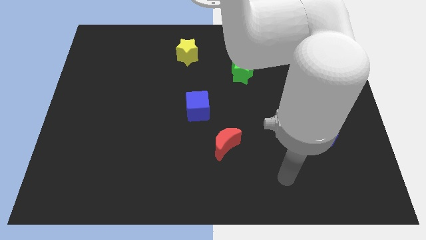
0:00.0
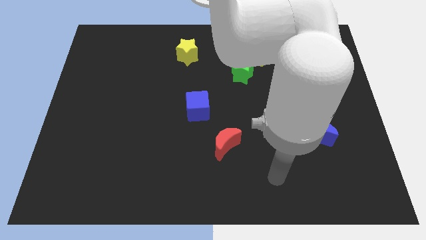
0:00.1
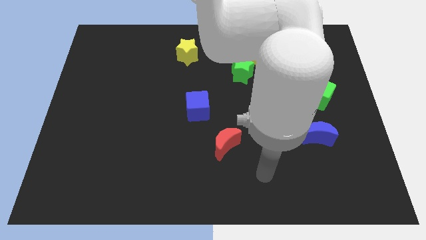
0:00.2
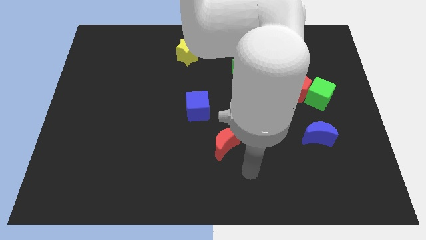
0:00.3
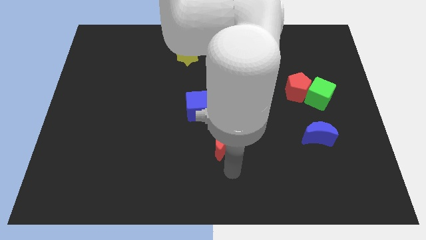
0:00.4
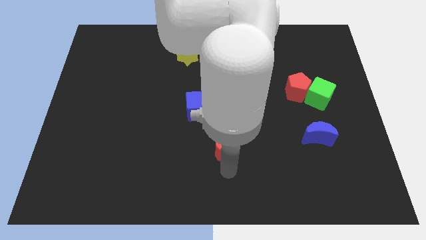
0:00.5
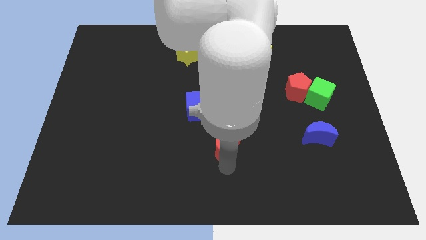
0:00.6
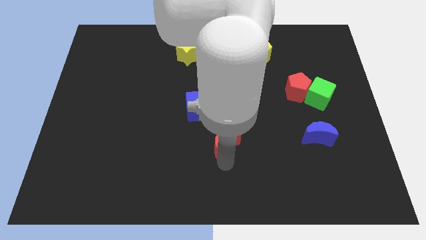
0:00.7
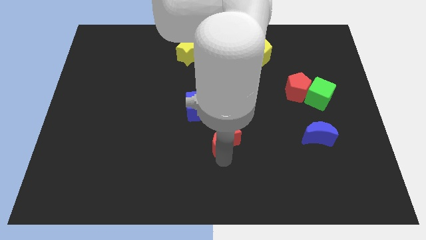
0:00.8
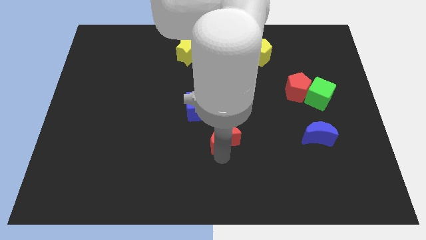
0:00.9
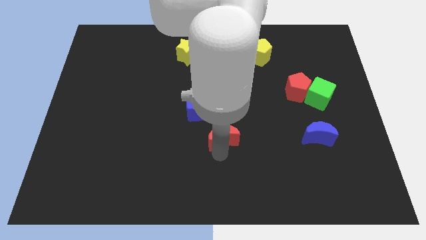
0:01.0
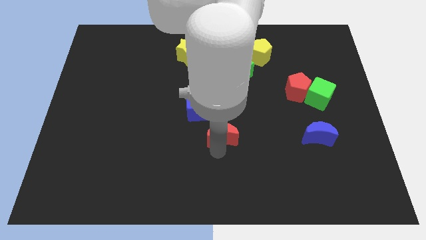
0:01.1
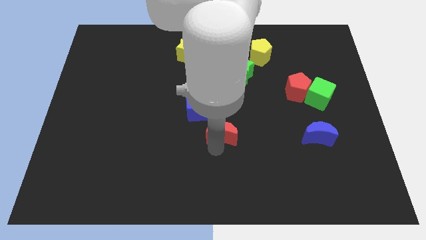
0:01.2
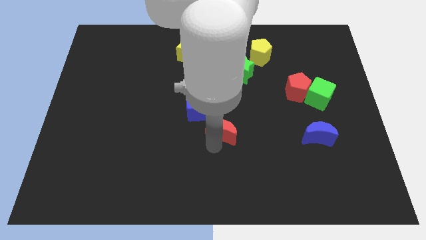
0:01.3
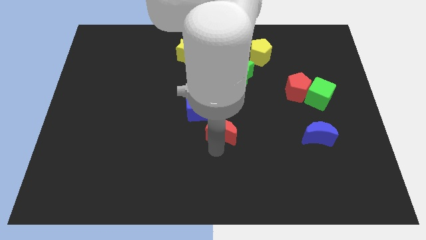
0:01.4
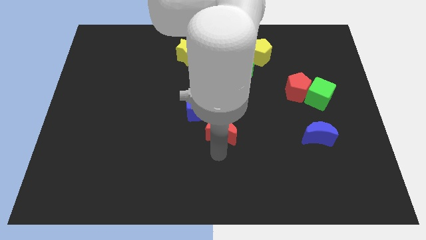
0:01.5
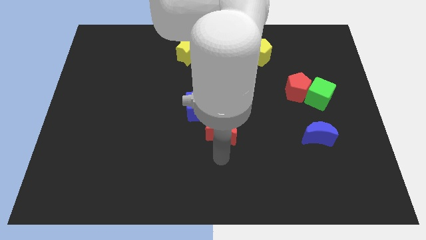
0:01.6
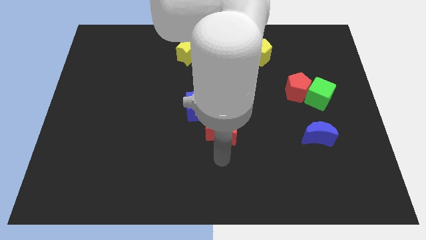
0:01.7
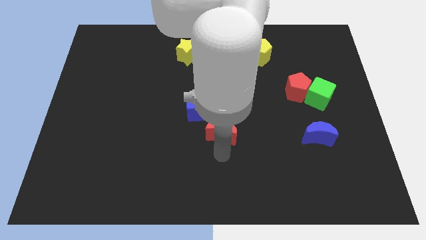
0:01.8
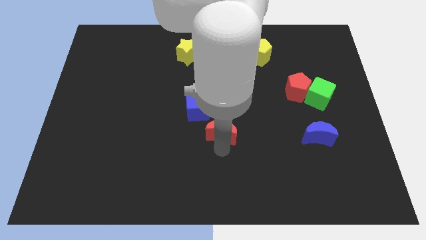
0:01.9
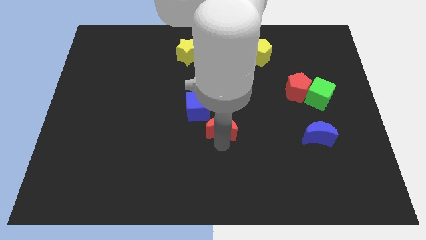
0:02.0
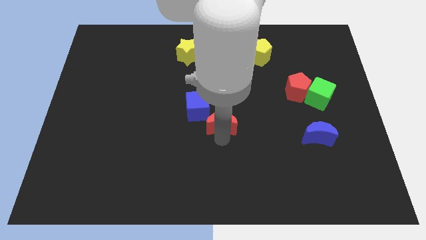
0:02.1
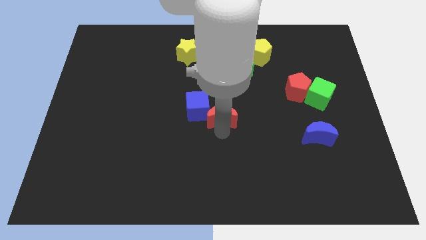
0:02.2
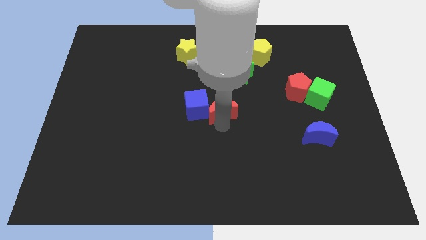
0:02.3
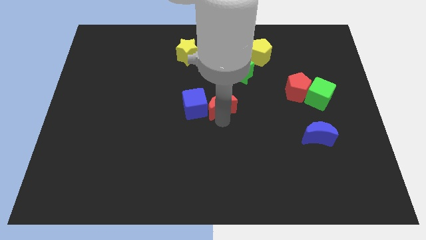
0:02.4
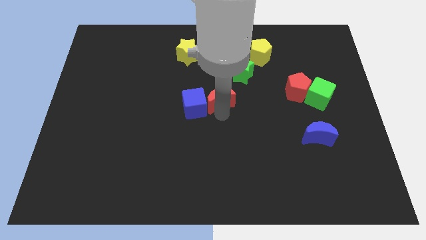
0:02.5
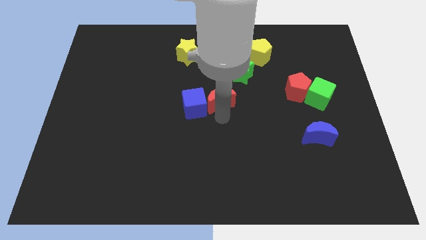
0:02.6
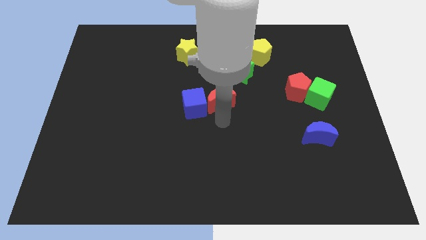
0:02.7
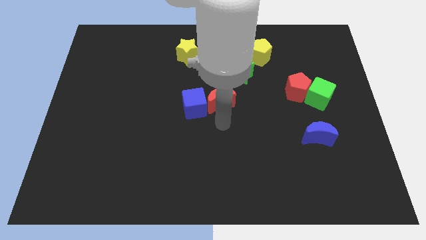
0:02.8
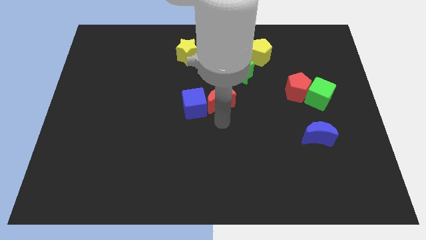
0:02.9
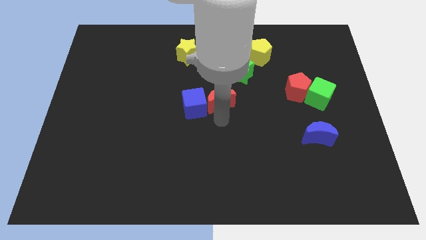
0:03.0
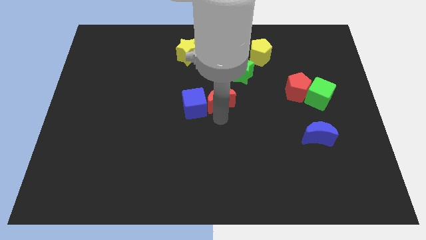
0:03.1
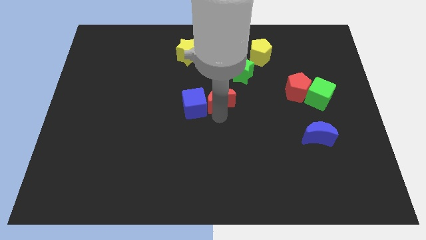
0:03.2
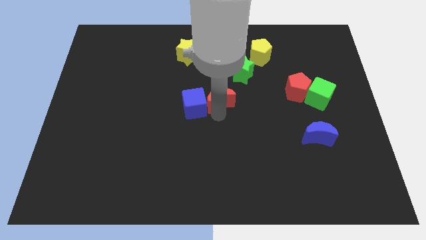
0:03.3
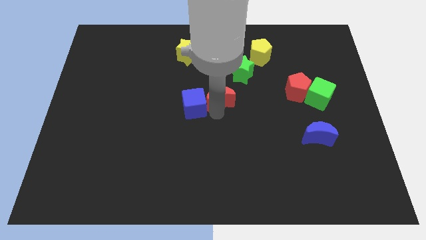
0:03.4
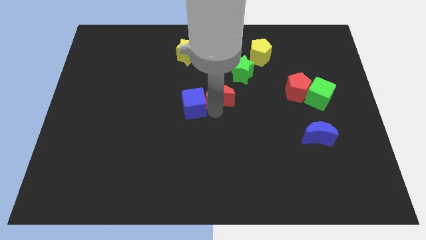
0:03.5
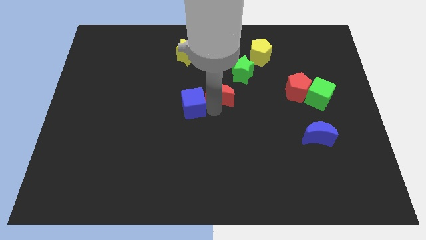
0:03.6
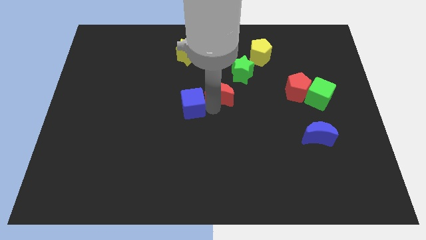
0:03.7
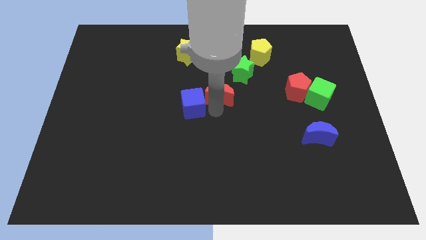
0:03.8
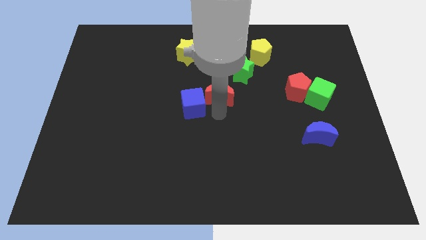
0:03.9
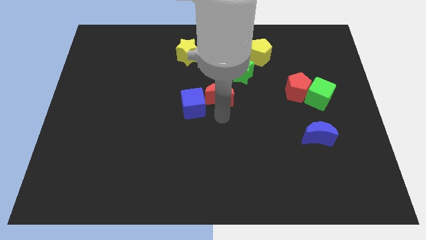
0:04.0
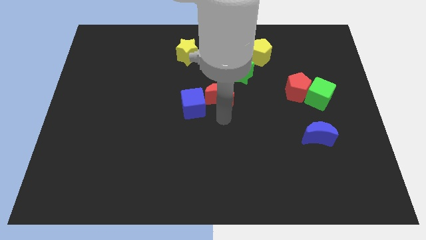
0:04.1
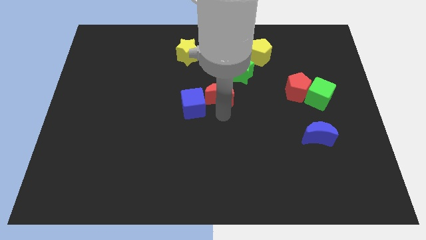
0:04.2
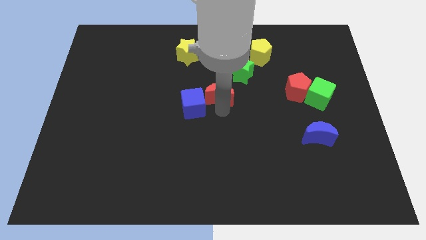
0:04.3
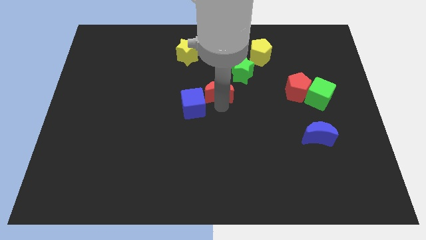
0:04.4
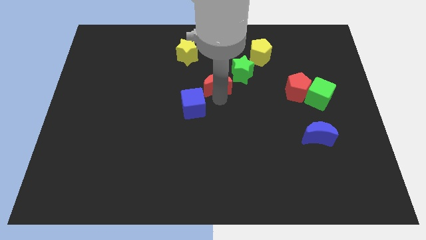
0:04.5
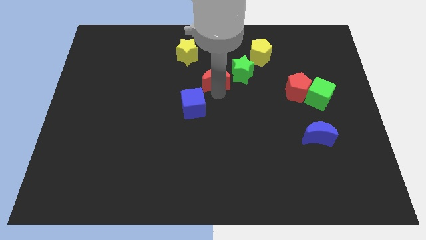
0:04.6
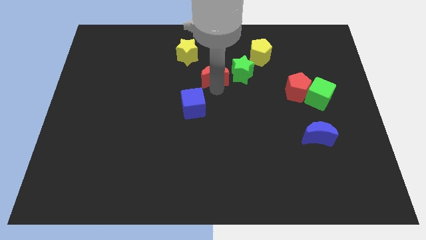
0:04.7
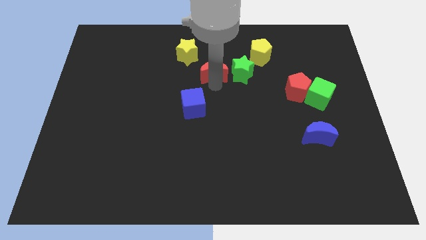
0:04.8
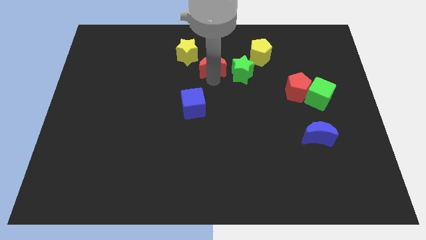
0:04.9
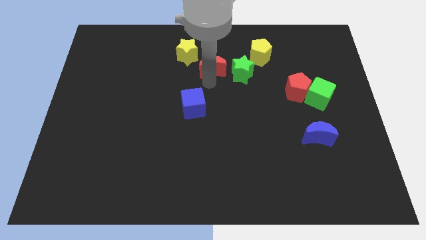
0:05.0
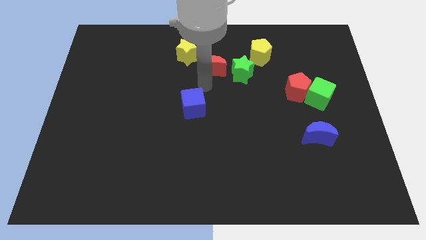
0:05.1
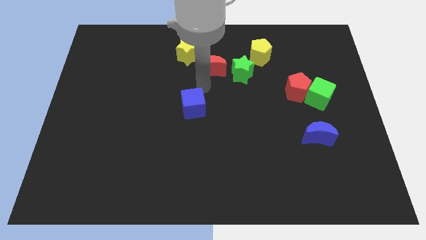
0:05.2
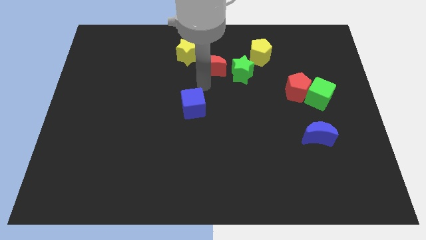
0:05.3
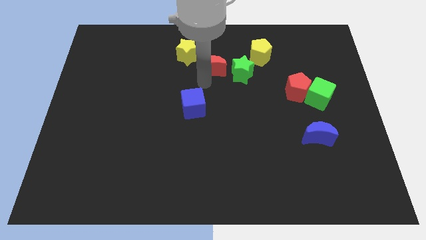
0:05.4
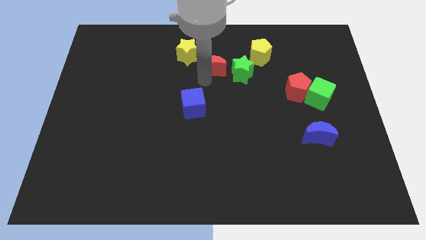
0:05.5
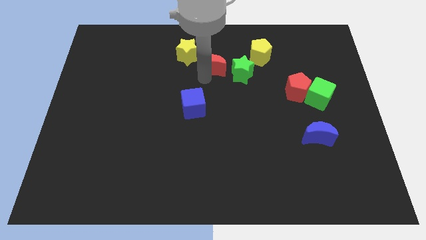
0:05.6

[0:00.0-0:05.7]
move the red moon to the left side of the yellow pentagon

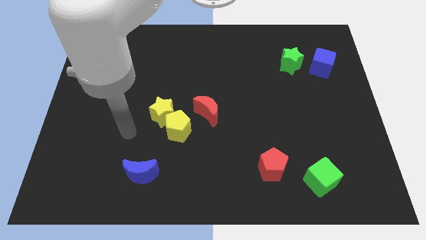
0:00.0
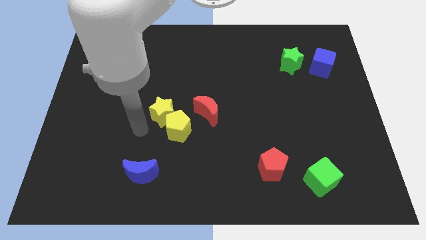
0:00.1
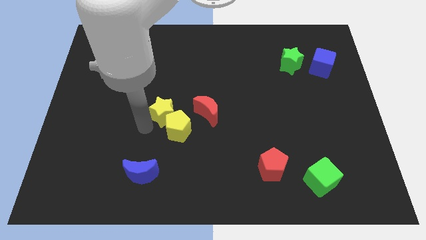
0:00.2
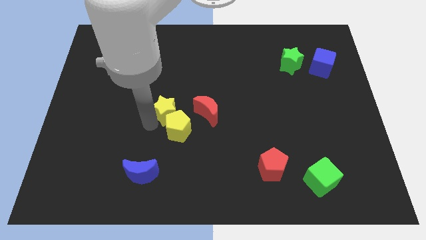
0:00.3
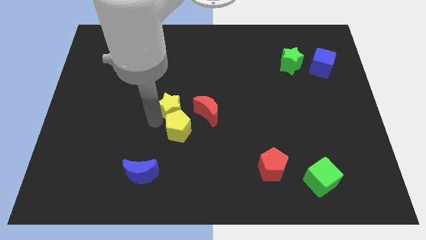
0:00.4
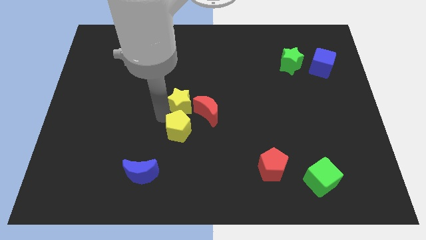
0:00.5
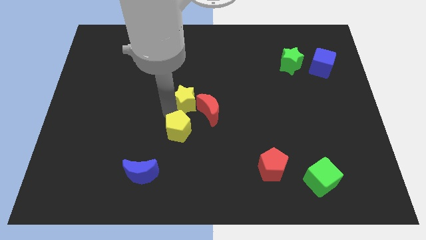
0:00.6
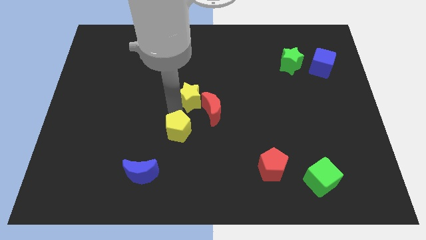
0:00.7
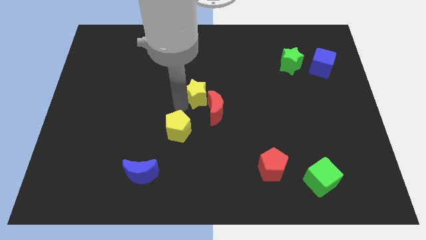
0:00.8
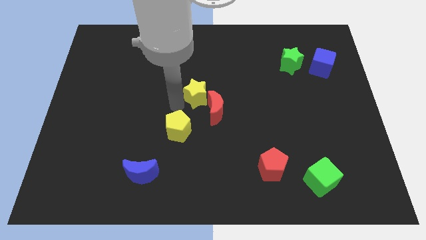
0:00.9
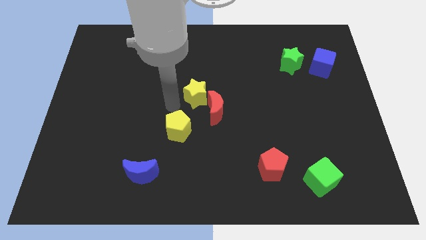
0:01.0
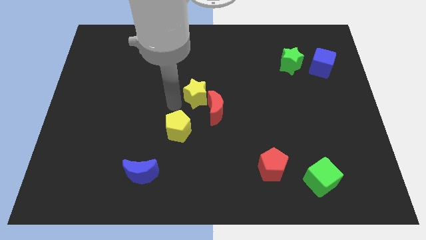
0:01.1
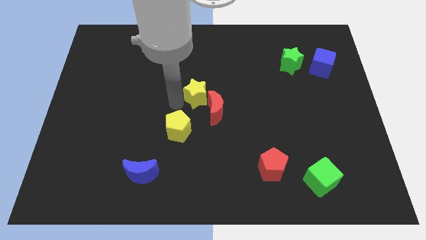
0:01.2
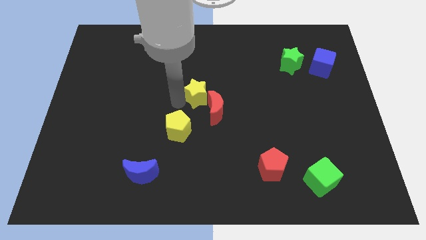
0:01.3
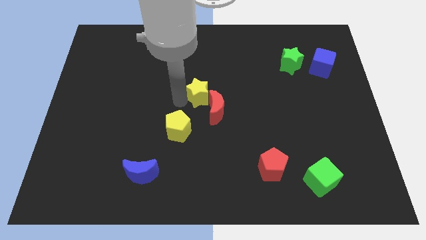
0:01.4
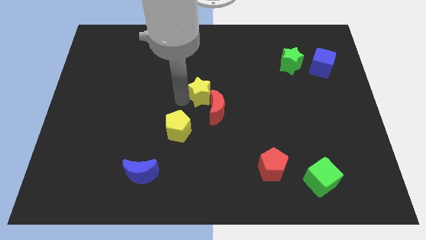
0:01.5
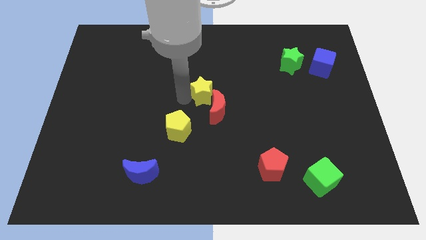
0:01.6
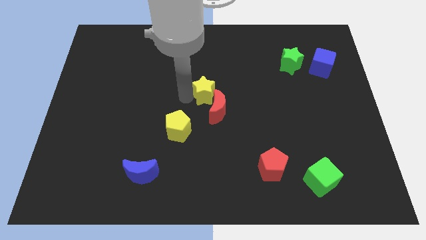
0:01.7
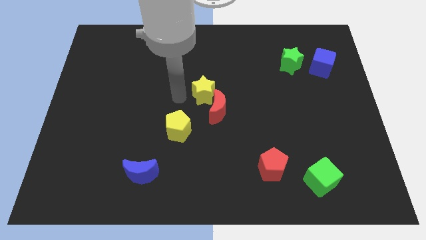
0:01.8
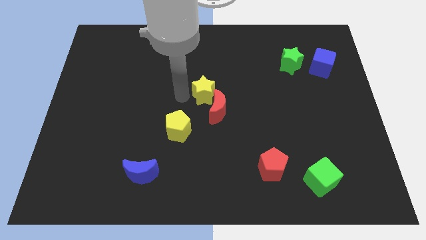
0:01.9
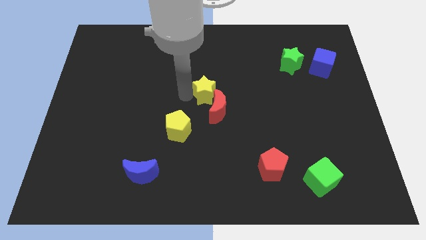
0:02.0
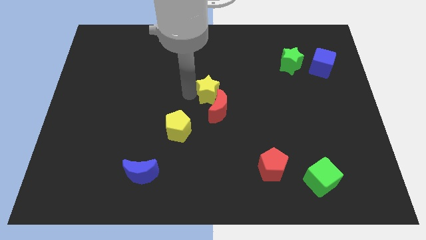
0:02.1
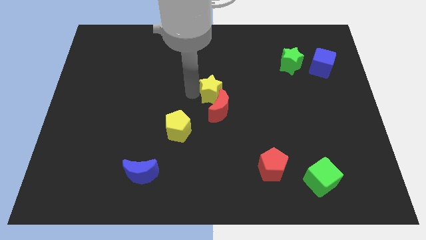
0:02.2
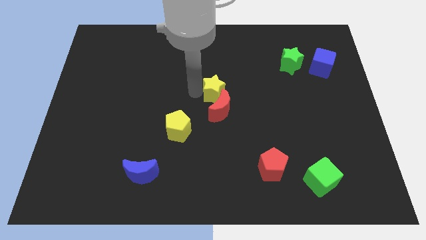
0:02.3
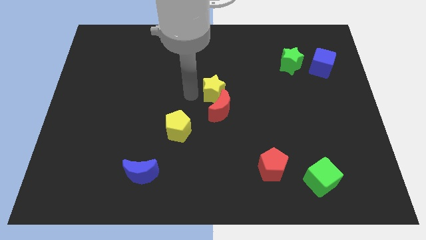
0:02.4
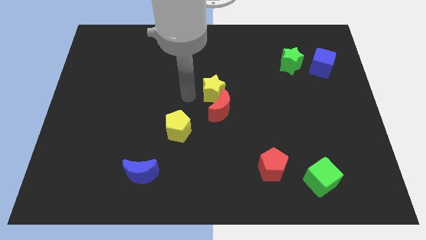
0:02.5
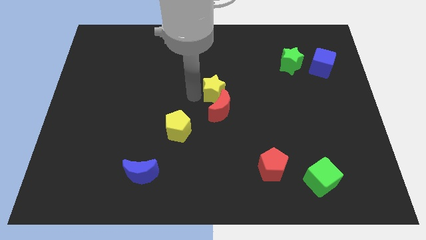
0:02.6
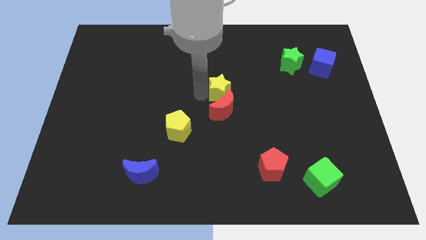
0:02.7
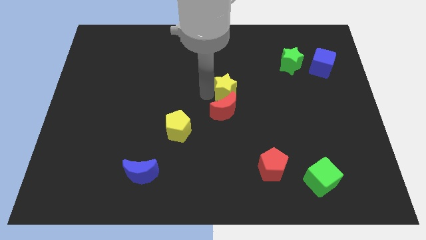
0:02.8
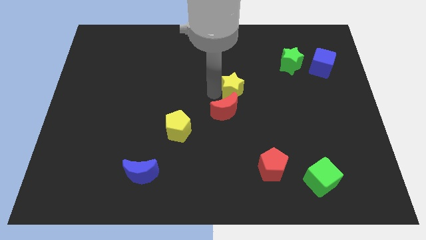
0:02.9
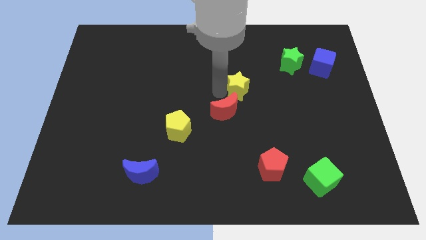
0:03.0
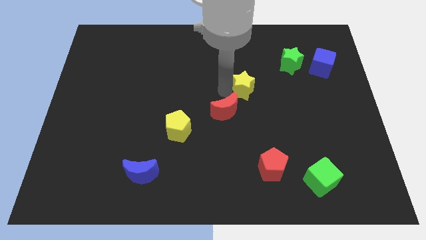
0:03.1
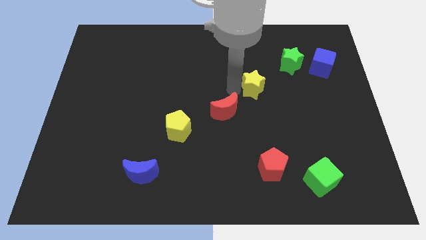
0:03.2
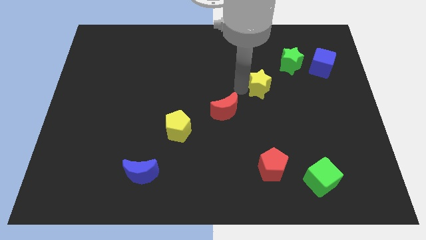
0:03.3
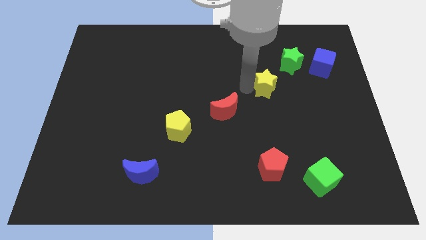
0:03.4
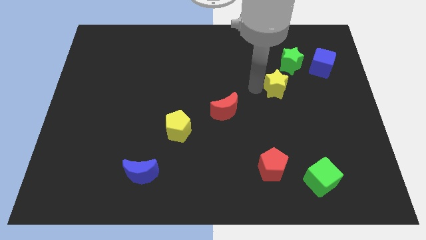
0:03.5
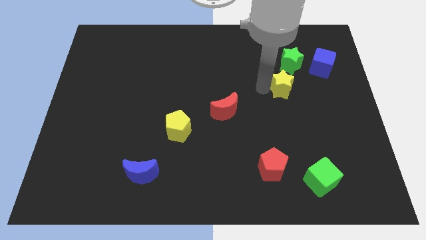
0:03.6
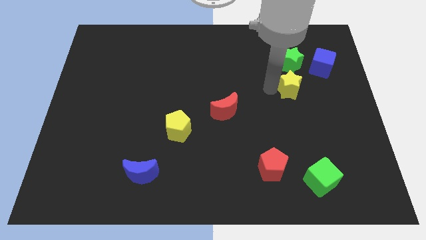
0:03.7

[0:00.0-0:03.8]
move the yellow star to the bottom left of the blue cube
